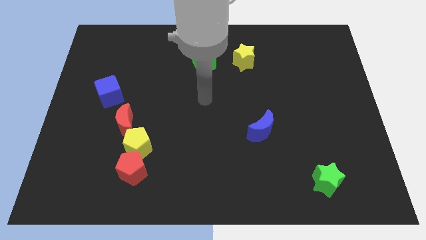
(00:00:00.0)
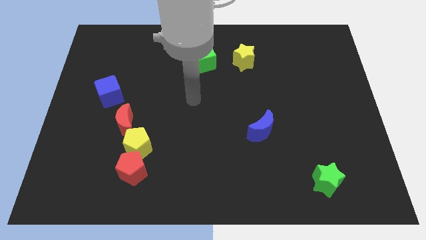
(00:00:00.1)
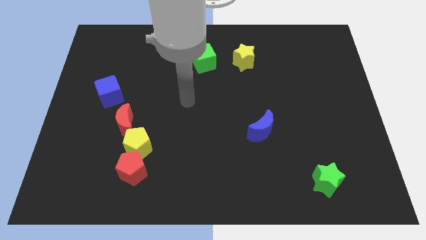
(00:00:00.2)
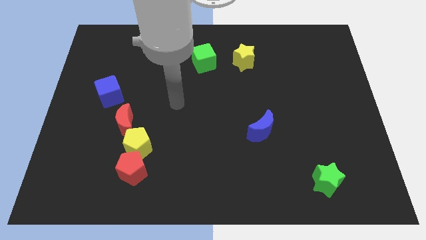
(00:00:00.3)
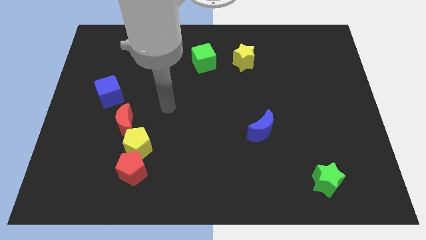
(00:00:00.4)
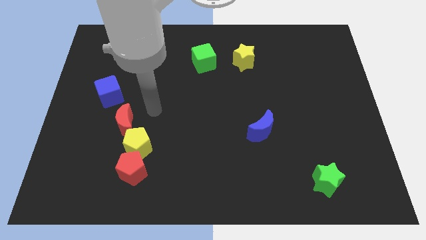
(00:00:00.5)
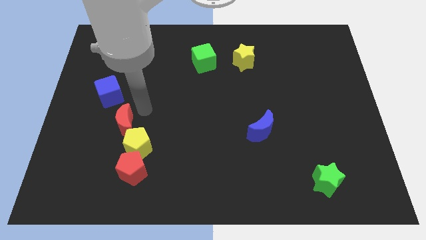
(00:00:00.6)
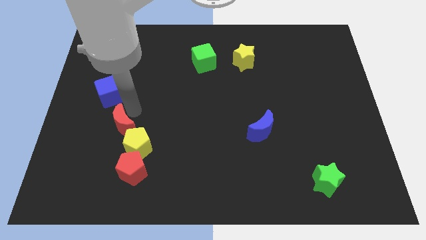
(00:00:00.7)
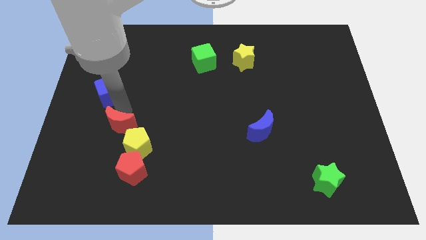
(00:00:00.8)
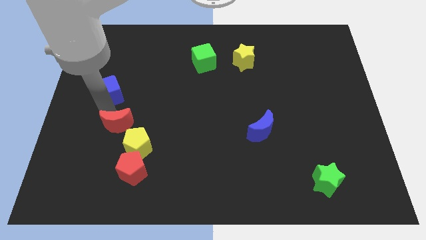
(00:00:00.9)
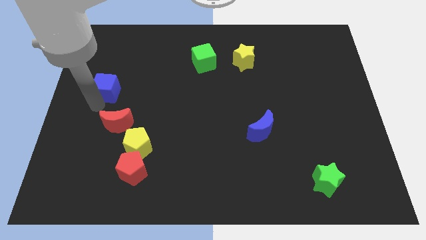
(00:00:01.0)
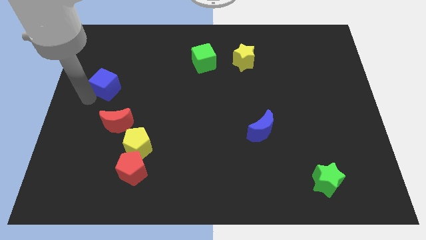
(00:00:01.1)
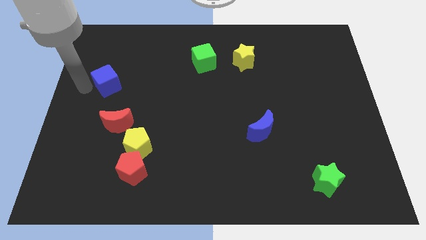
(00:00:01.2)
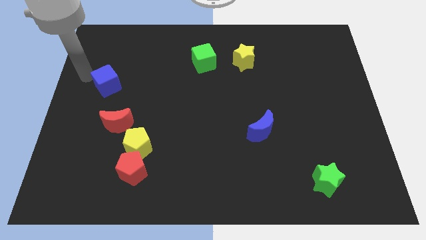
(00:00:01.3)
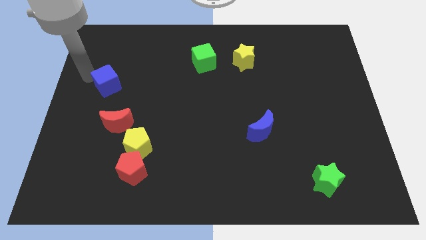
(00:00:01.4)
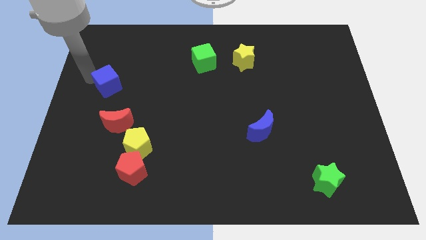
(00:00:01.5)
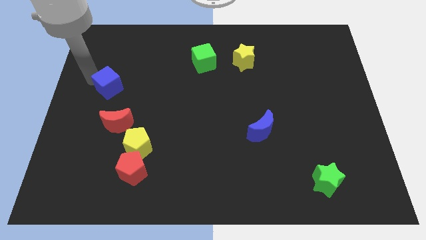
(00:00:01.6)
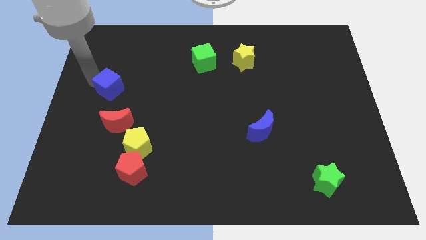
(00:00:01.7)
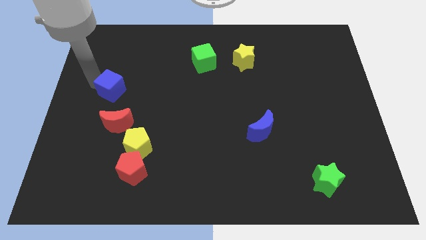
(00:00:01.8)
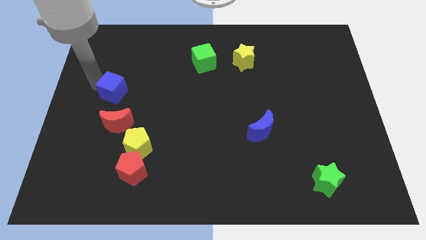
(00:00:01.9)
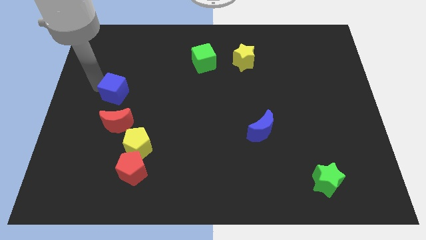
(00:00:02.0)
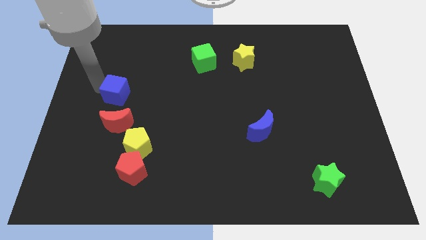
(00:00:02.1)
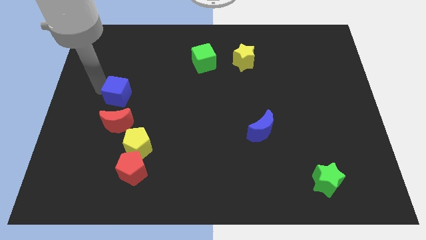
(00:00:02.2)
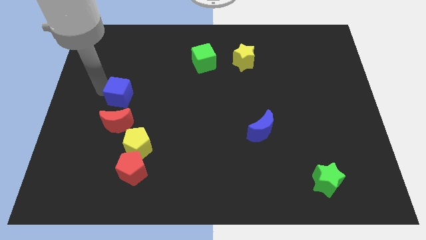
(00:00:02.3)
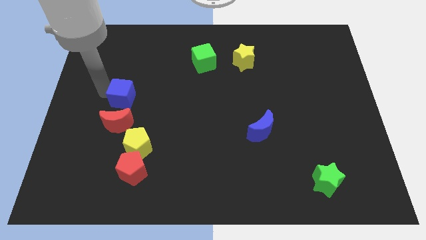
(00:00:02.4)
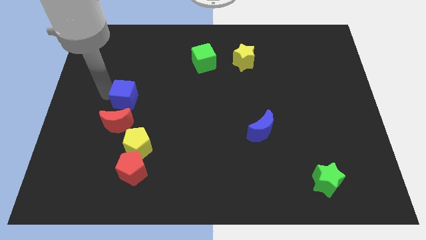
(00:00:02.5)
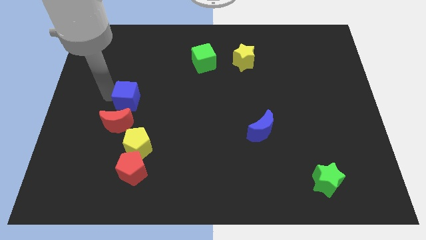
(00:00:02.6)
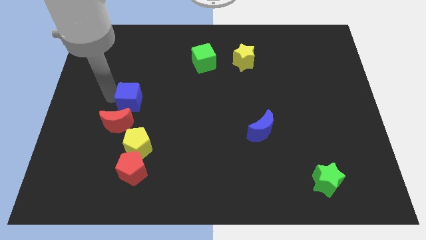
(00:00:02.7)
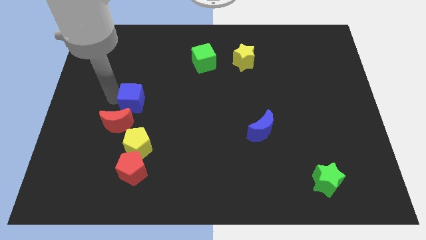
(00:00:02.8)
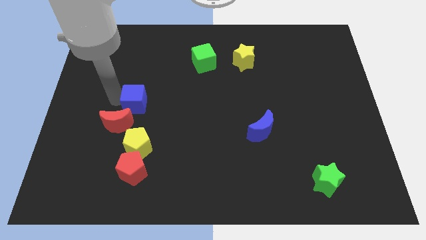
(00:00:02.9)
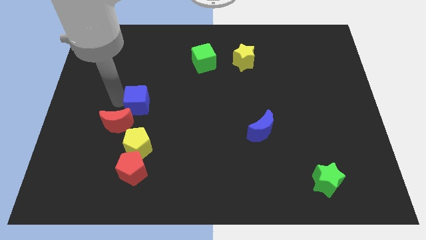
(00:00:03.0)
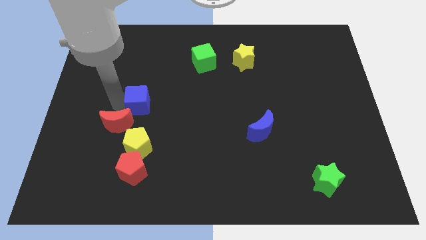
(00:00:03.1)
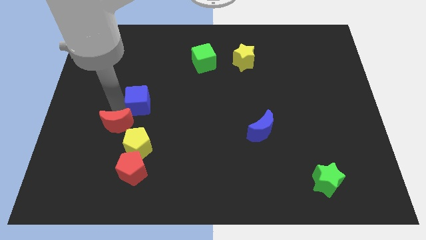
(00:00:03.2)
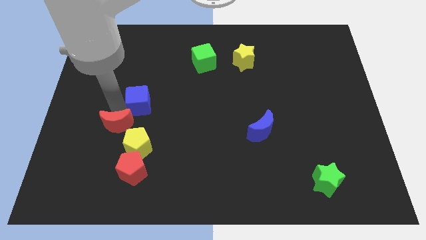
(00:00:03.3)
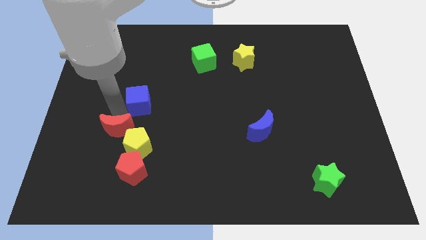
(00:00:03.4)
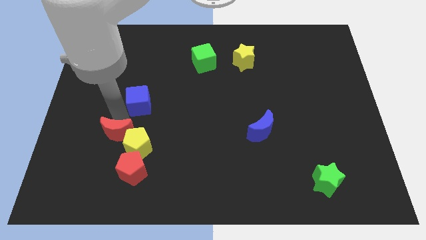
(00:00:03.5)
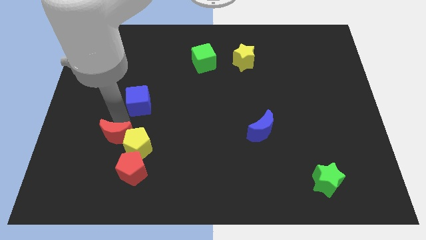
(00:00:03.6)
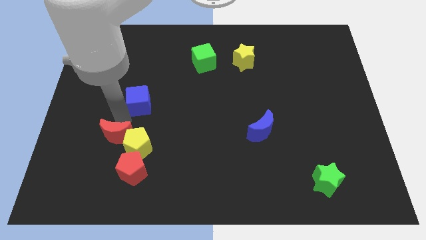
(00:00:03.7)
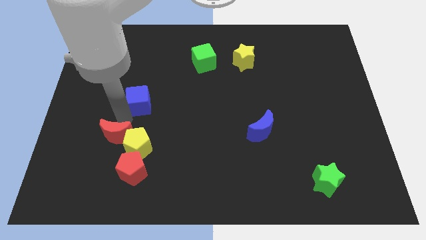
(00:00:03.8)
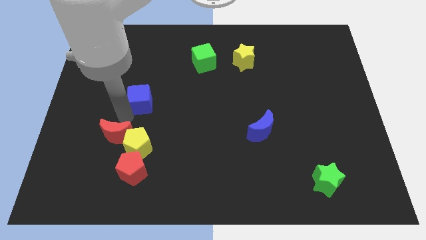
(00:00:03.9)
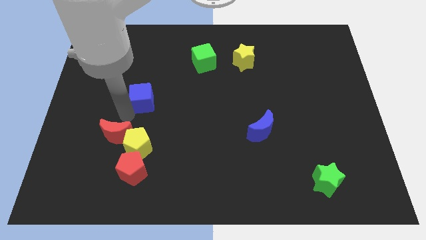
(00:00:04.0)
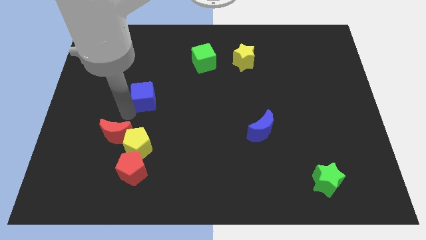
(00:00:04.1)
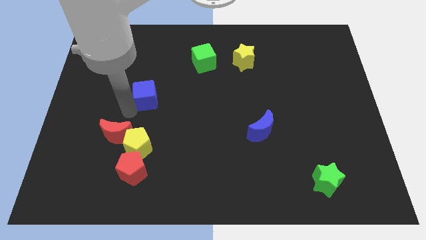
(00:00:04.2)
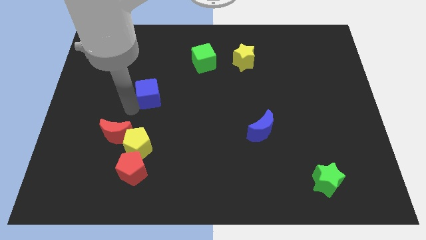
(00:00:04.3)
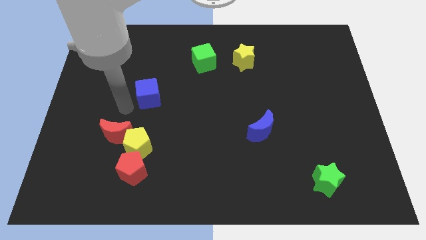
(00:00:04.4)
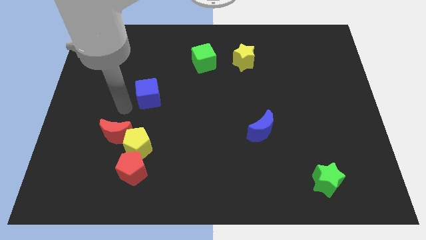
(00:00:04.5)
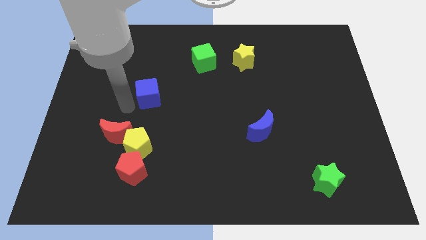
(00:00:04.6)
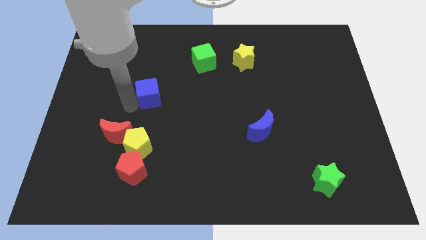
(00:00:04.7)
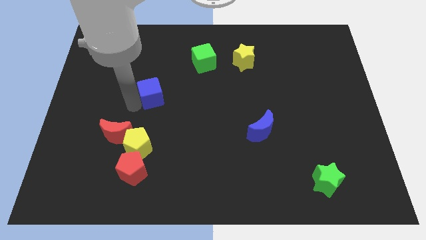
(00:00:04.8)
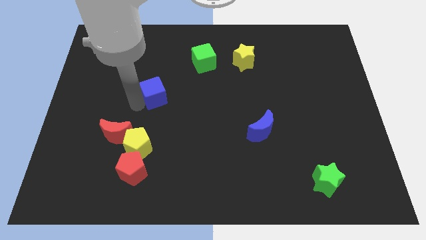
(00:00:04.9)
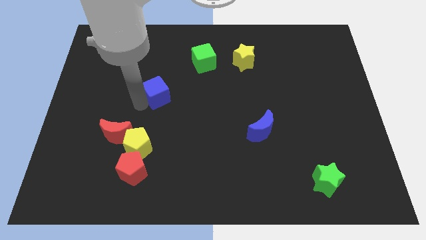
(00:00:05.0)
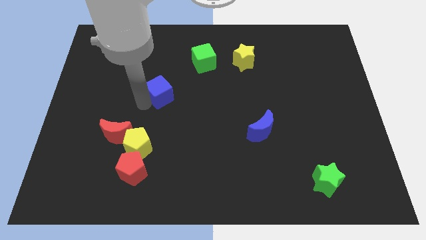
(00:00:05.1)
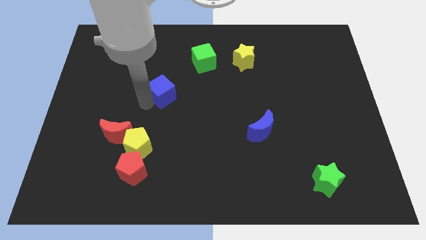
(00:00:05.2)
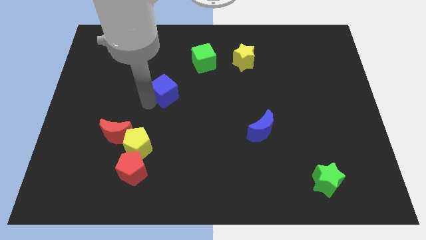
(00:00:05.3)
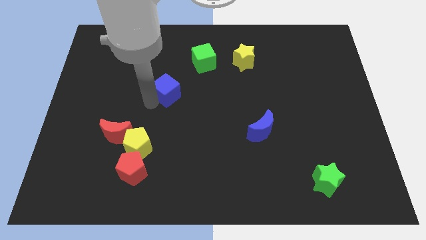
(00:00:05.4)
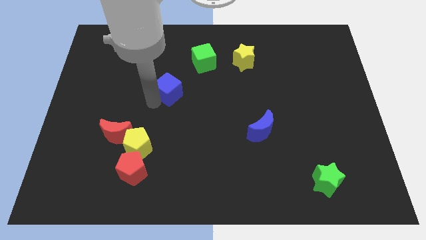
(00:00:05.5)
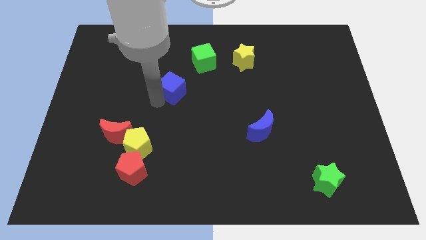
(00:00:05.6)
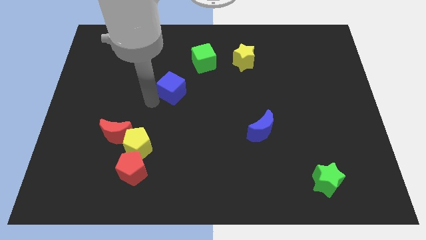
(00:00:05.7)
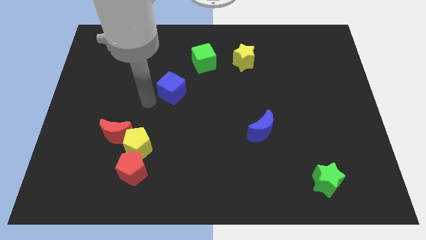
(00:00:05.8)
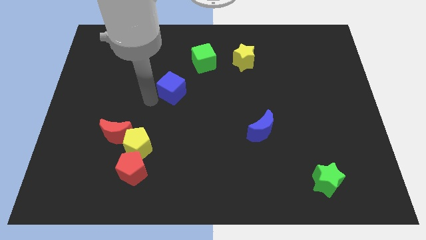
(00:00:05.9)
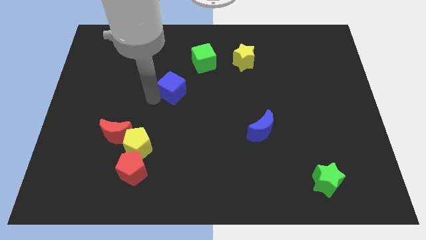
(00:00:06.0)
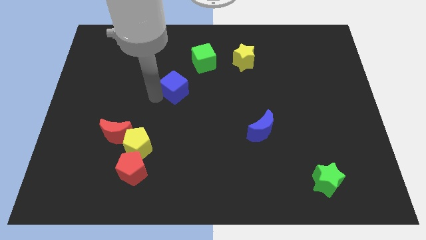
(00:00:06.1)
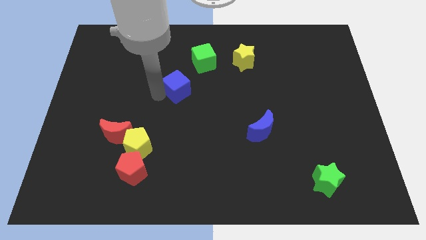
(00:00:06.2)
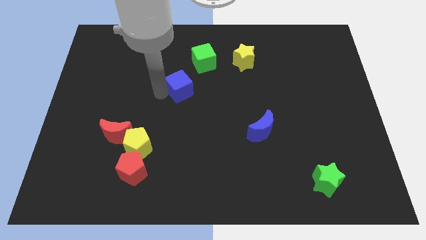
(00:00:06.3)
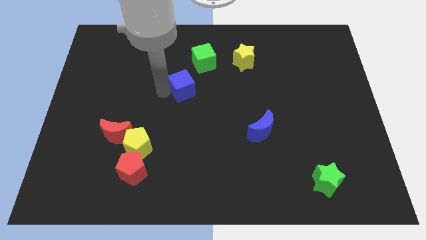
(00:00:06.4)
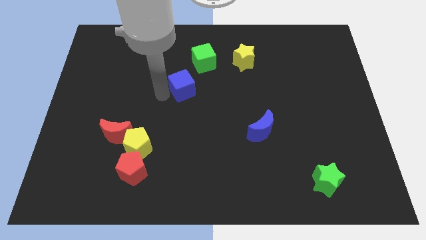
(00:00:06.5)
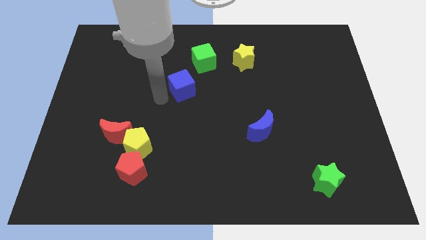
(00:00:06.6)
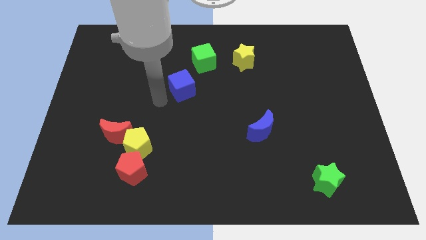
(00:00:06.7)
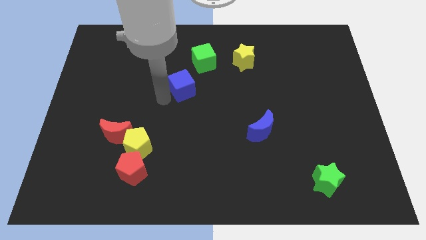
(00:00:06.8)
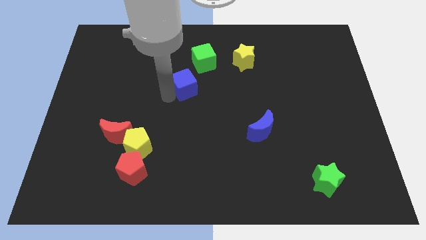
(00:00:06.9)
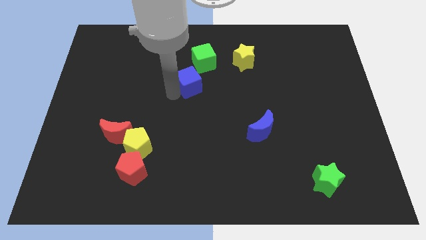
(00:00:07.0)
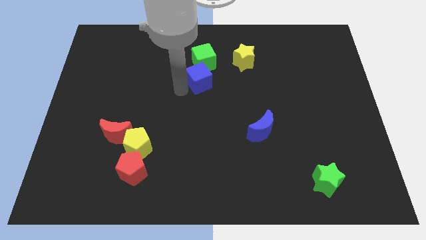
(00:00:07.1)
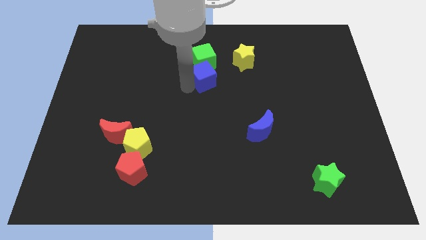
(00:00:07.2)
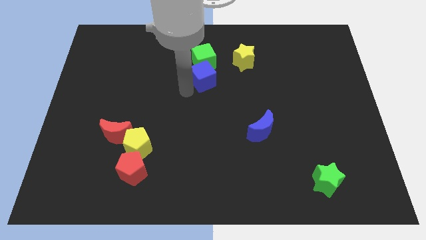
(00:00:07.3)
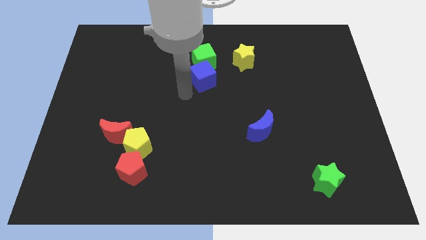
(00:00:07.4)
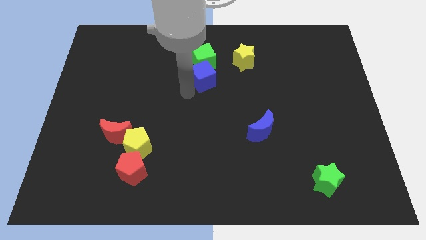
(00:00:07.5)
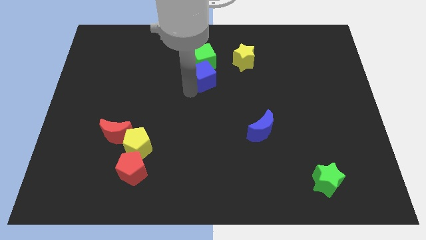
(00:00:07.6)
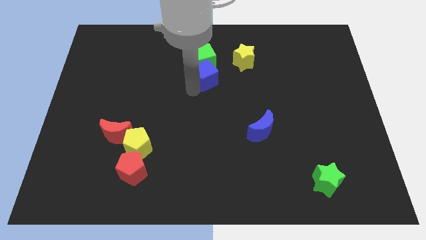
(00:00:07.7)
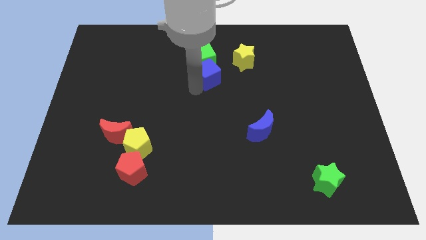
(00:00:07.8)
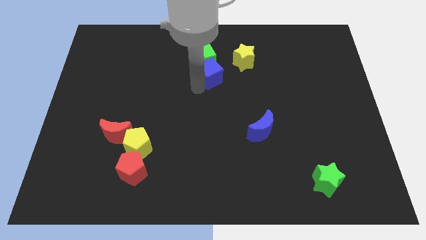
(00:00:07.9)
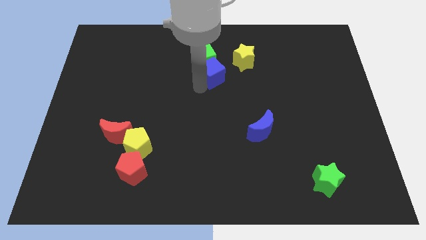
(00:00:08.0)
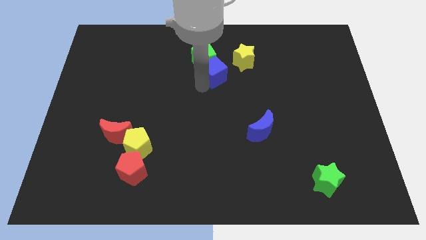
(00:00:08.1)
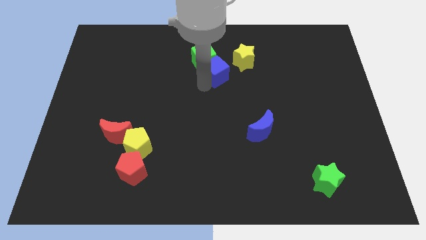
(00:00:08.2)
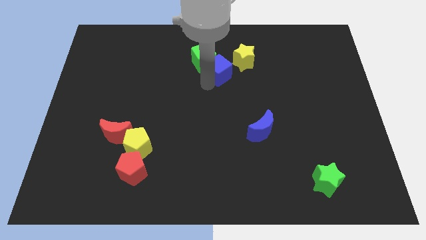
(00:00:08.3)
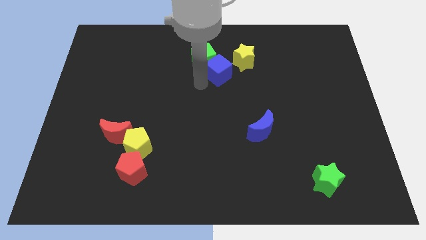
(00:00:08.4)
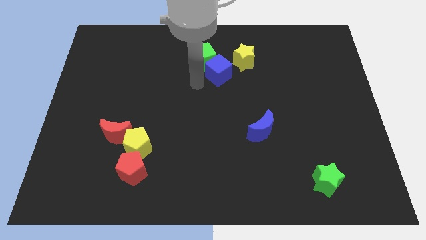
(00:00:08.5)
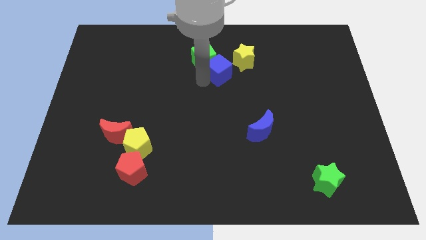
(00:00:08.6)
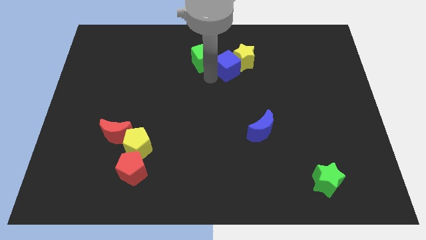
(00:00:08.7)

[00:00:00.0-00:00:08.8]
put the blue cube to the yellow star
